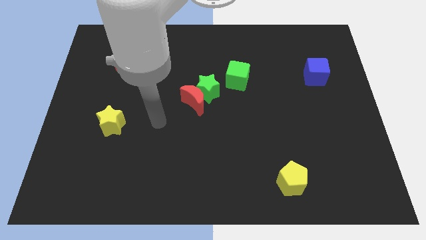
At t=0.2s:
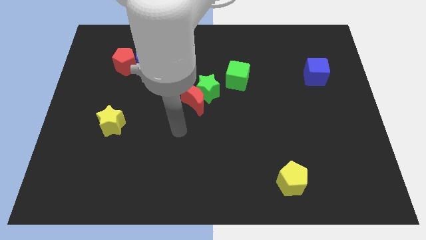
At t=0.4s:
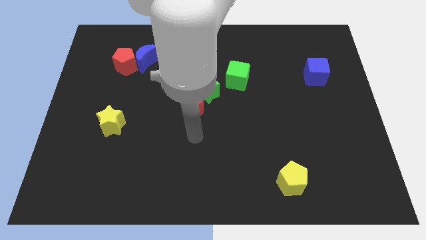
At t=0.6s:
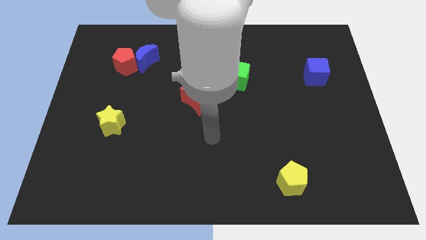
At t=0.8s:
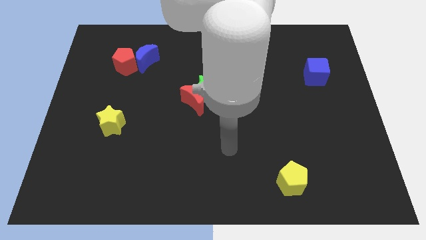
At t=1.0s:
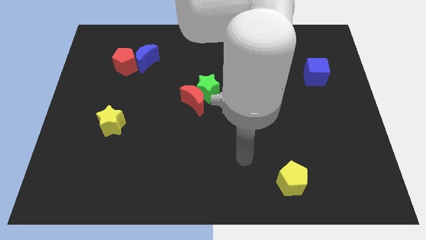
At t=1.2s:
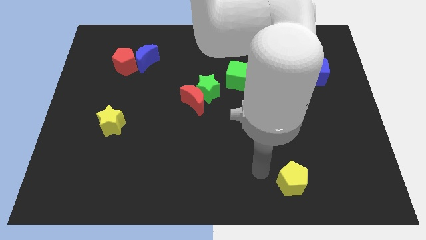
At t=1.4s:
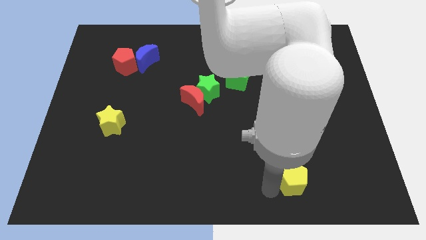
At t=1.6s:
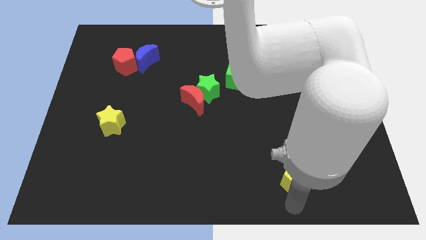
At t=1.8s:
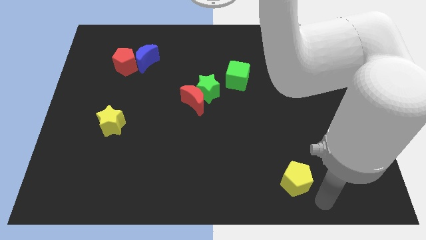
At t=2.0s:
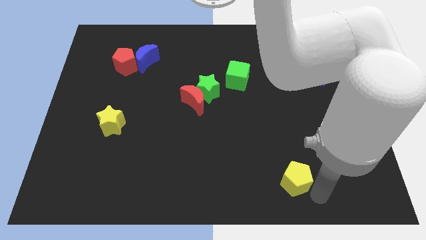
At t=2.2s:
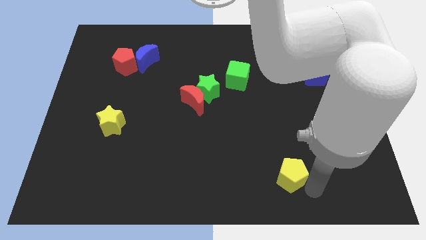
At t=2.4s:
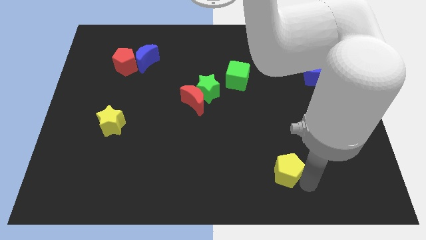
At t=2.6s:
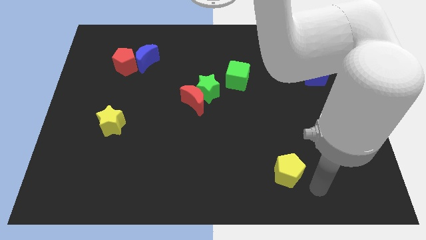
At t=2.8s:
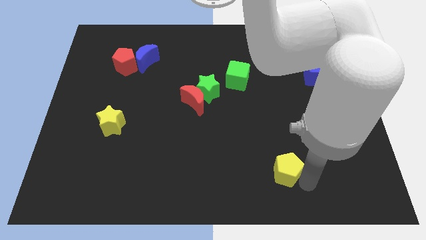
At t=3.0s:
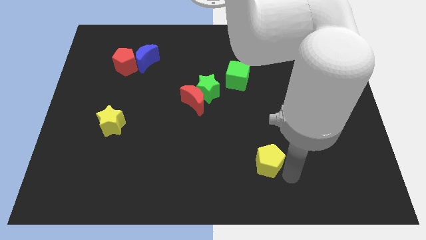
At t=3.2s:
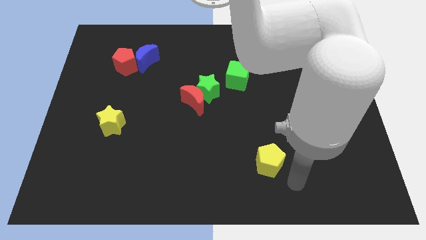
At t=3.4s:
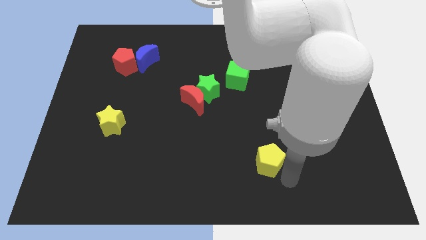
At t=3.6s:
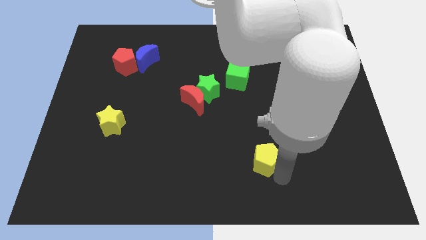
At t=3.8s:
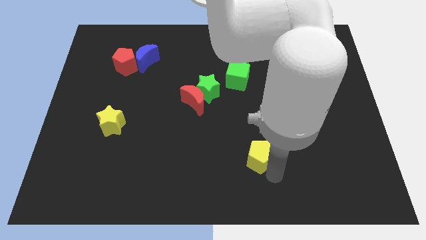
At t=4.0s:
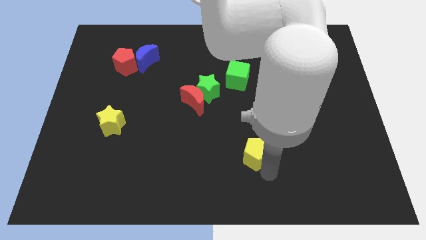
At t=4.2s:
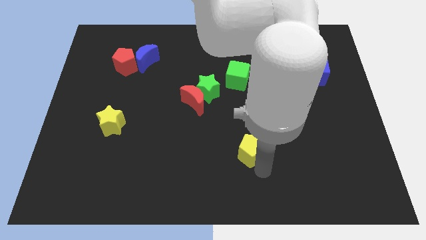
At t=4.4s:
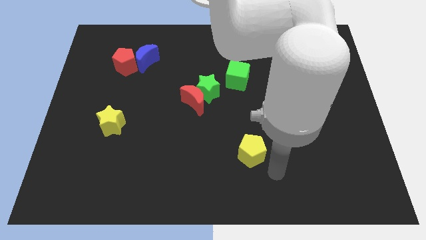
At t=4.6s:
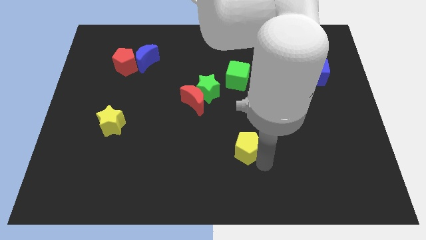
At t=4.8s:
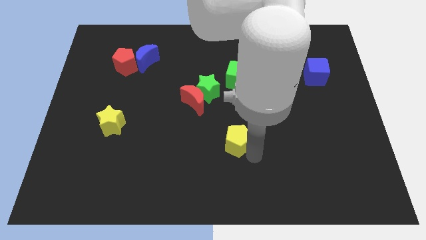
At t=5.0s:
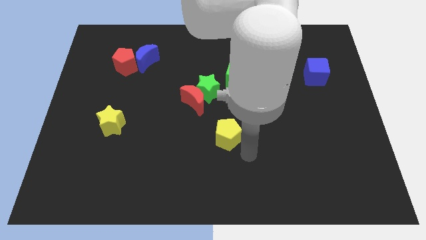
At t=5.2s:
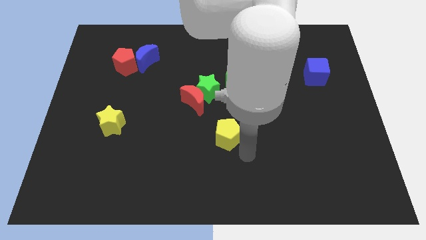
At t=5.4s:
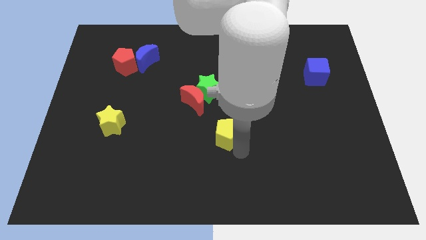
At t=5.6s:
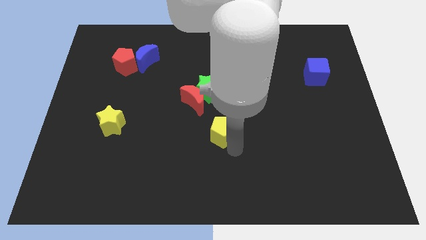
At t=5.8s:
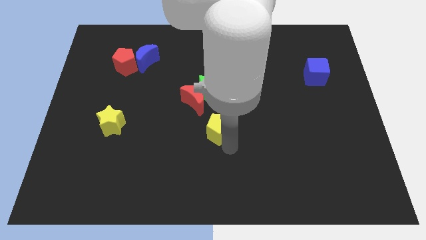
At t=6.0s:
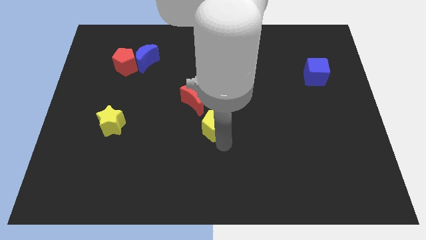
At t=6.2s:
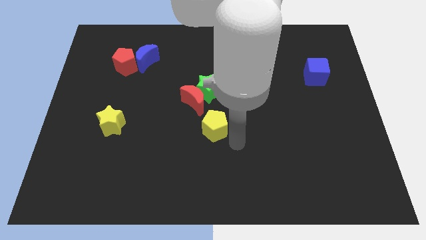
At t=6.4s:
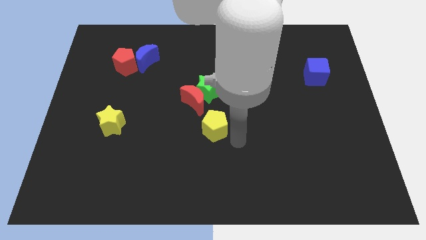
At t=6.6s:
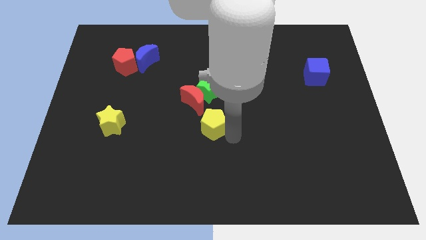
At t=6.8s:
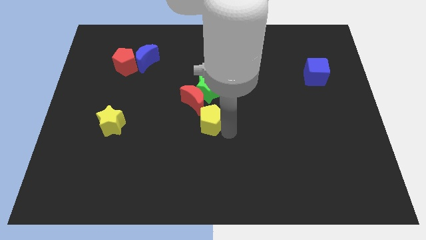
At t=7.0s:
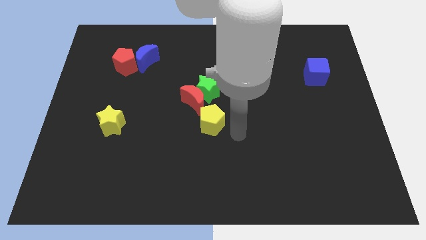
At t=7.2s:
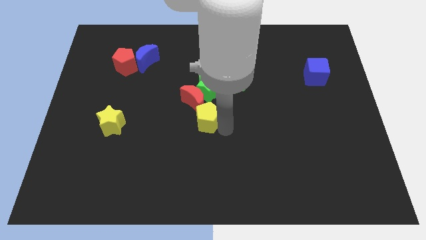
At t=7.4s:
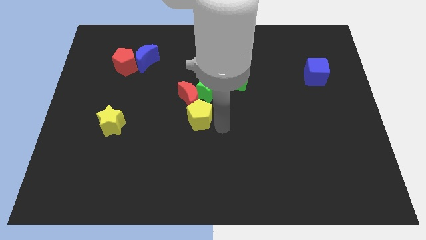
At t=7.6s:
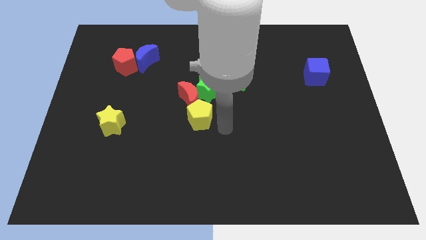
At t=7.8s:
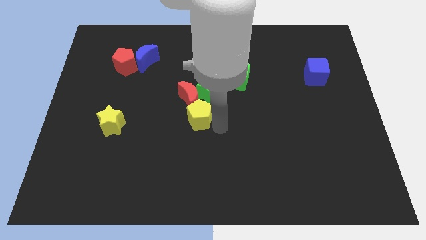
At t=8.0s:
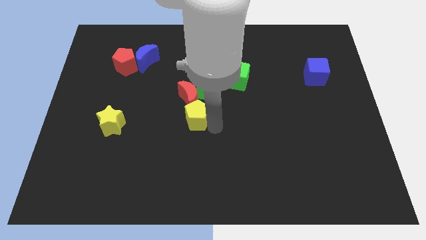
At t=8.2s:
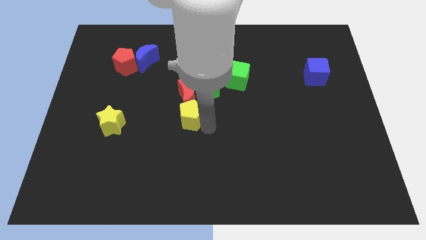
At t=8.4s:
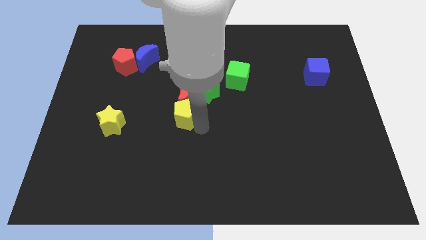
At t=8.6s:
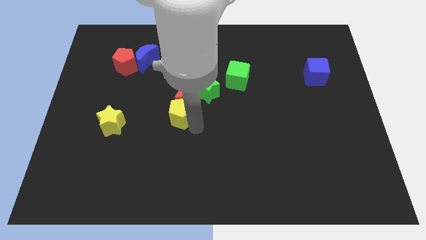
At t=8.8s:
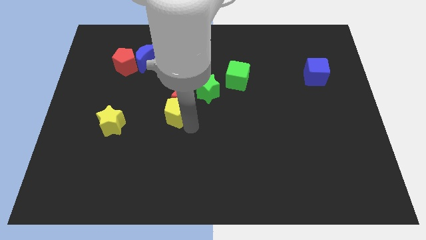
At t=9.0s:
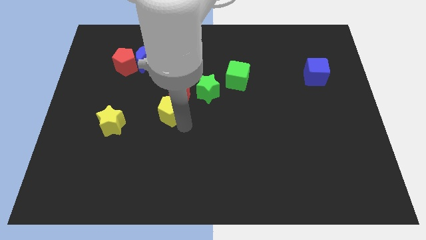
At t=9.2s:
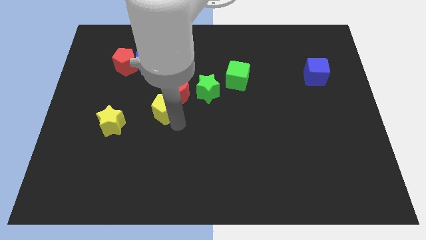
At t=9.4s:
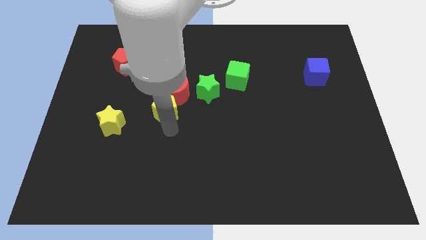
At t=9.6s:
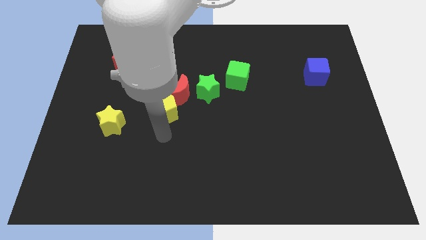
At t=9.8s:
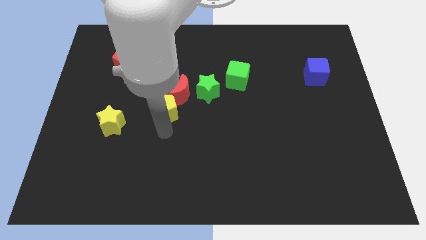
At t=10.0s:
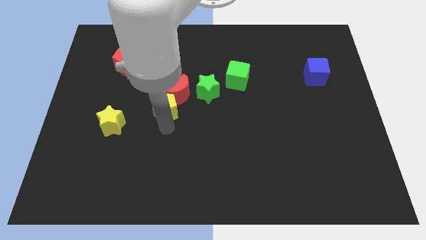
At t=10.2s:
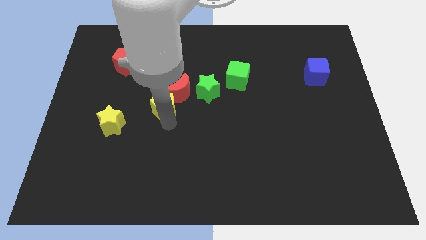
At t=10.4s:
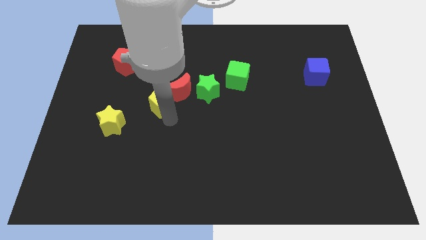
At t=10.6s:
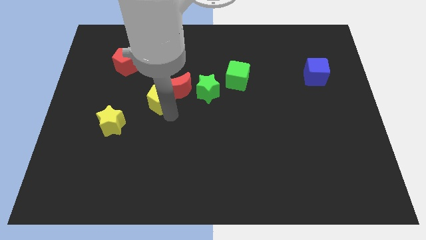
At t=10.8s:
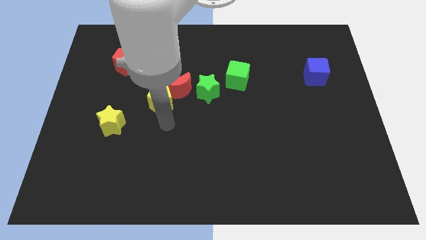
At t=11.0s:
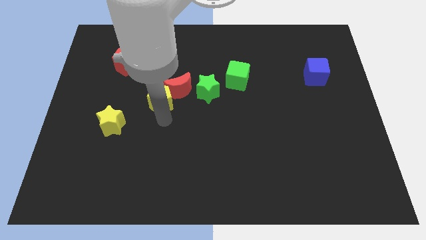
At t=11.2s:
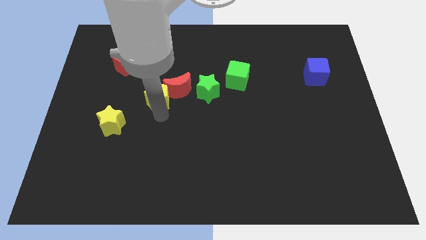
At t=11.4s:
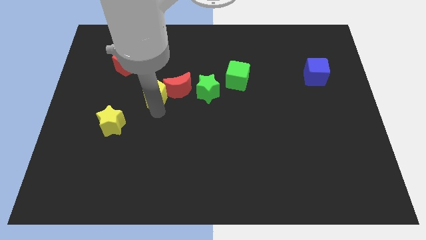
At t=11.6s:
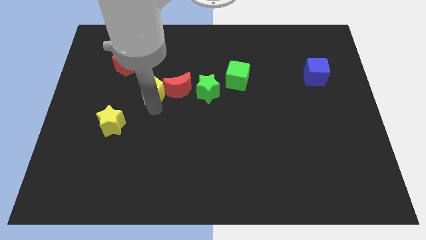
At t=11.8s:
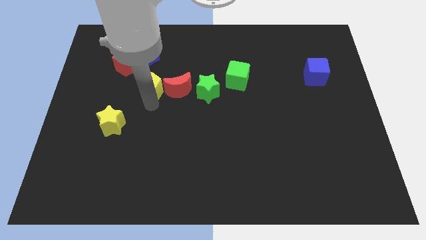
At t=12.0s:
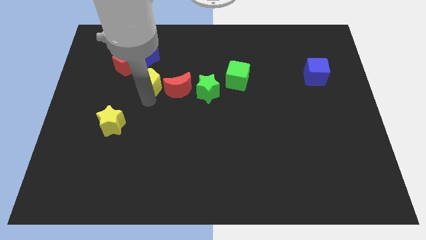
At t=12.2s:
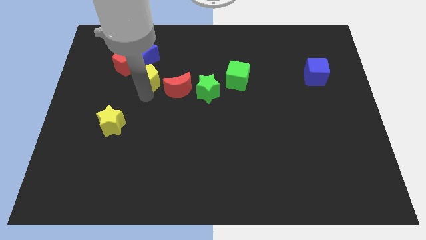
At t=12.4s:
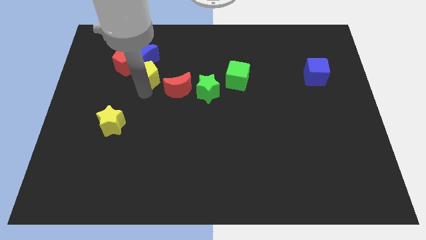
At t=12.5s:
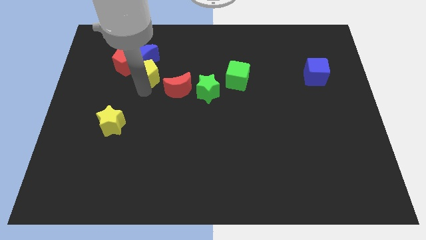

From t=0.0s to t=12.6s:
slide the yellow pentagon towards the blue moon
